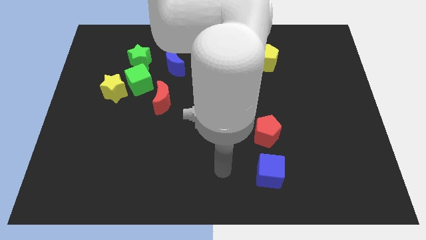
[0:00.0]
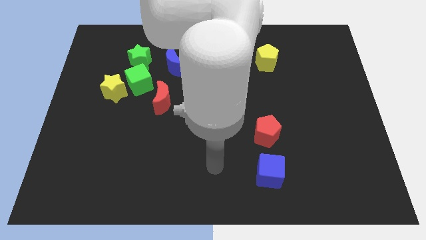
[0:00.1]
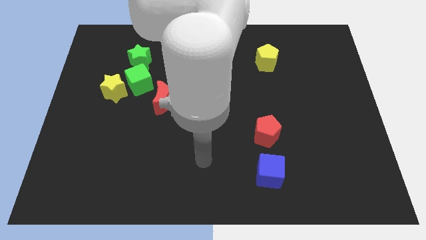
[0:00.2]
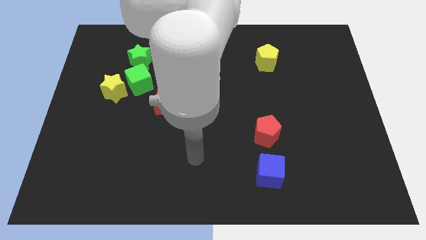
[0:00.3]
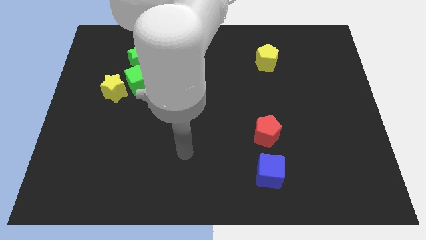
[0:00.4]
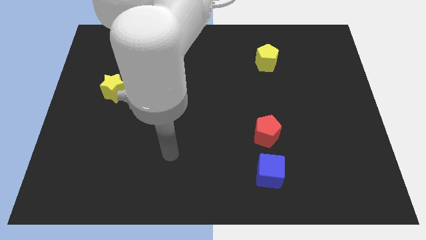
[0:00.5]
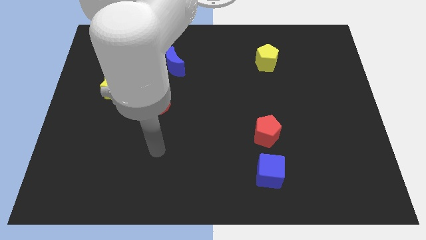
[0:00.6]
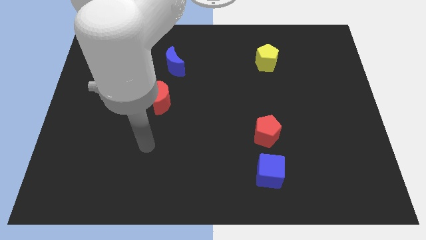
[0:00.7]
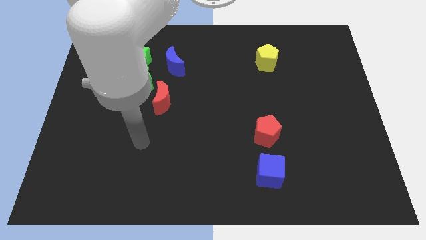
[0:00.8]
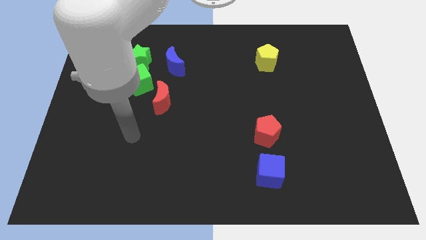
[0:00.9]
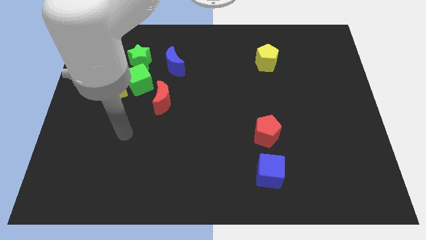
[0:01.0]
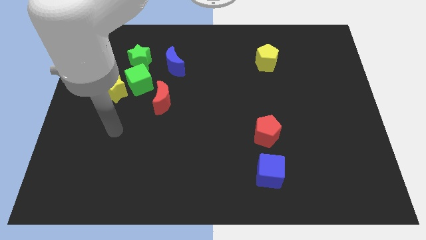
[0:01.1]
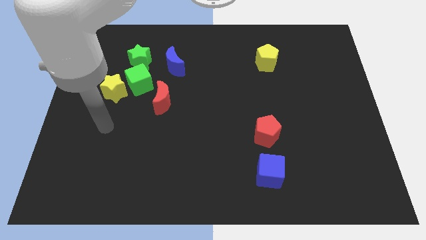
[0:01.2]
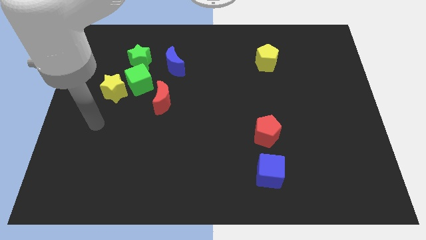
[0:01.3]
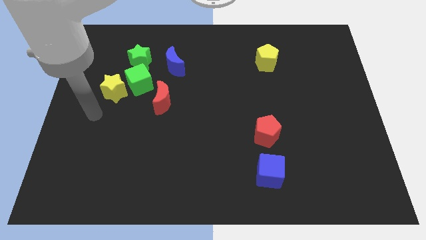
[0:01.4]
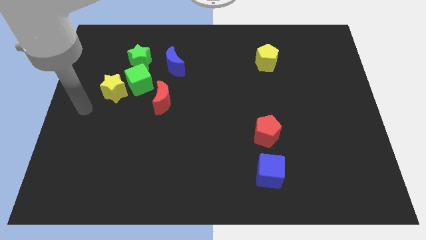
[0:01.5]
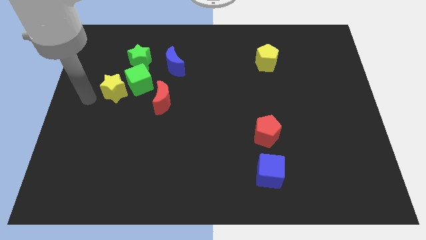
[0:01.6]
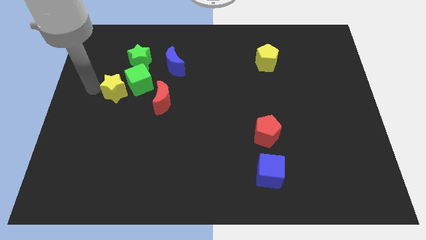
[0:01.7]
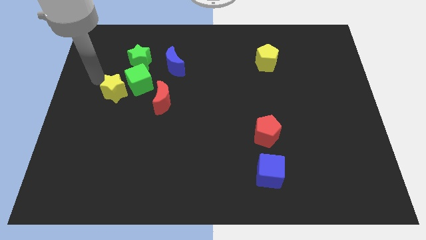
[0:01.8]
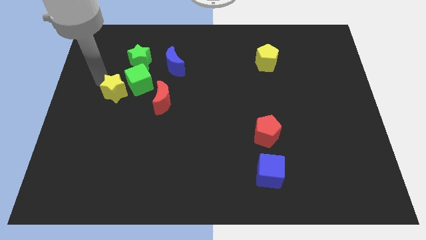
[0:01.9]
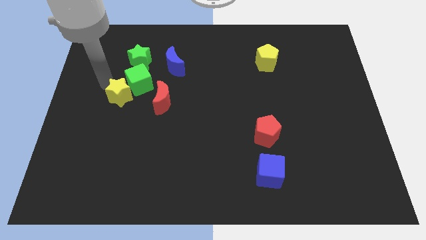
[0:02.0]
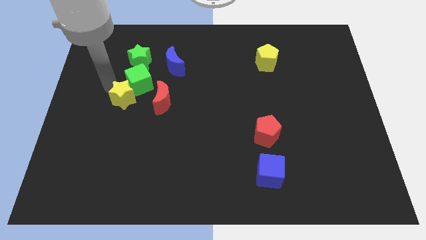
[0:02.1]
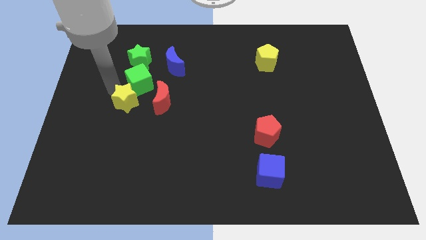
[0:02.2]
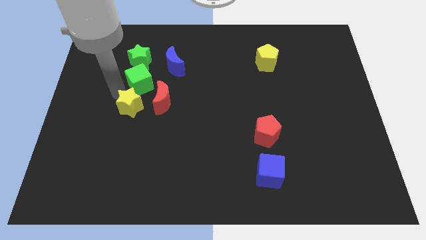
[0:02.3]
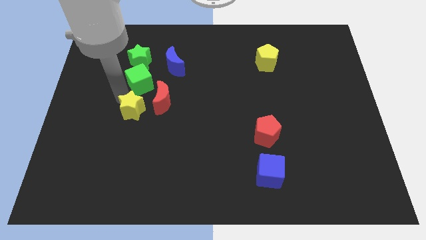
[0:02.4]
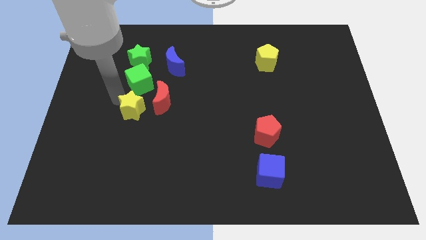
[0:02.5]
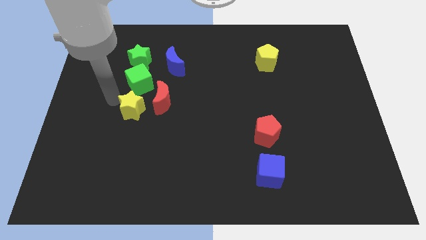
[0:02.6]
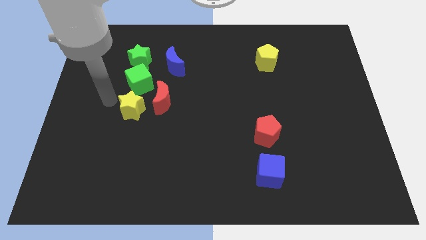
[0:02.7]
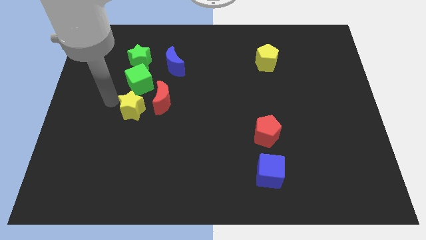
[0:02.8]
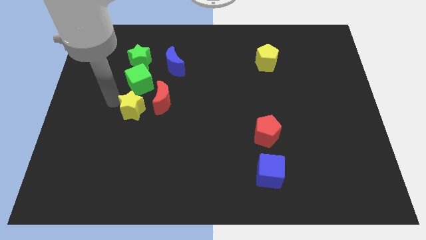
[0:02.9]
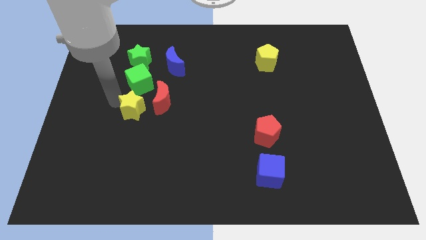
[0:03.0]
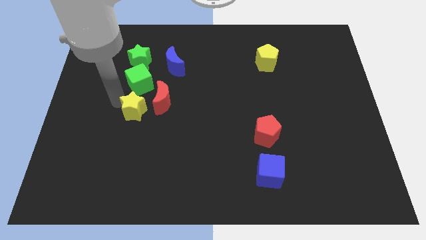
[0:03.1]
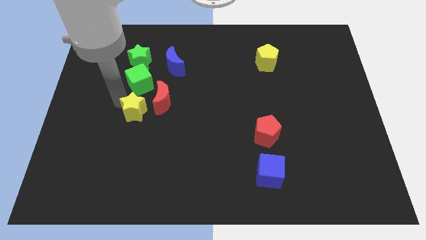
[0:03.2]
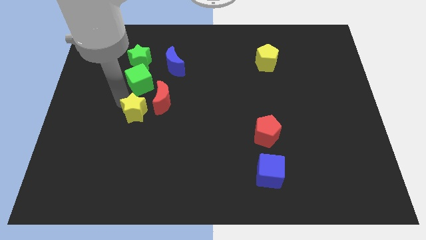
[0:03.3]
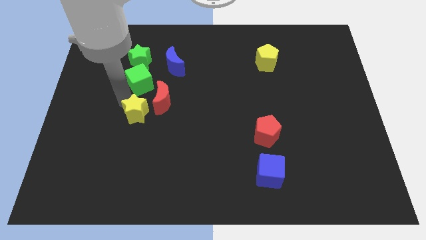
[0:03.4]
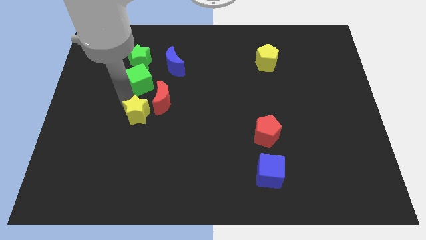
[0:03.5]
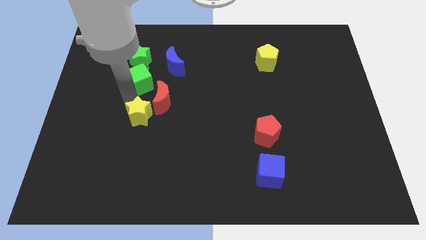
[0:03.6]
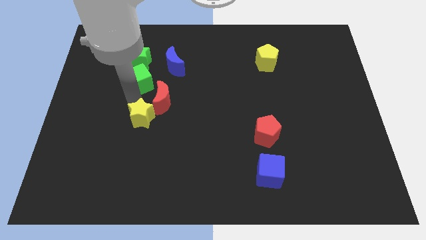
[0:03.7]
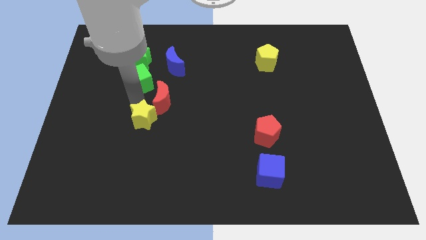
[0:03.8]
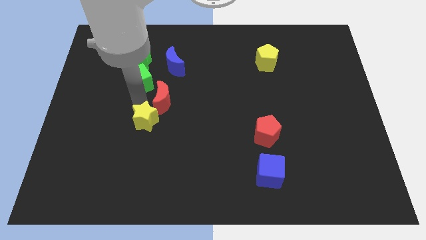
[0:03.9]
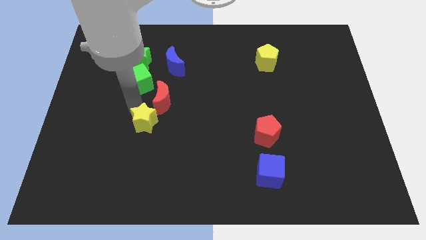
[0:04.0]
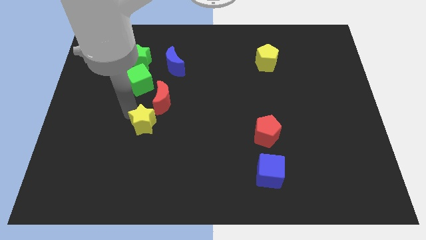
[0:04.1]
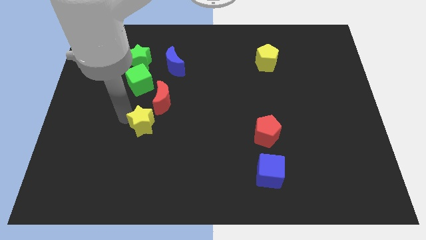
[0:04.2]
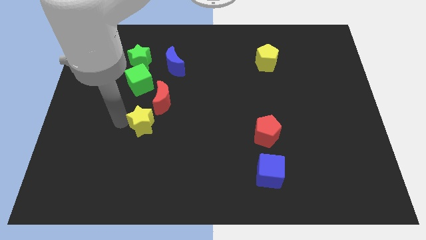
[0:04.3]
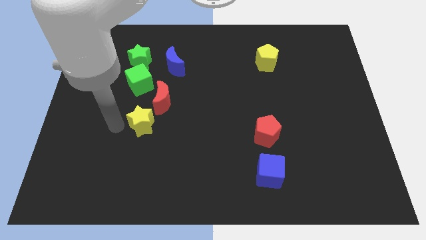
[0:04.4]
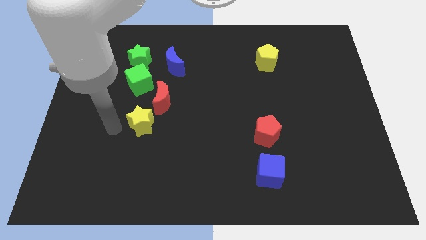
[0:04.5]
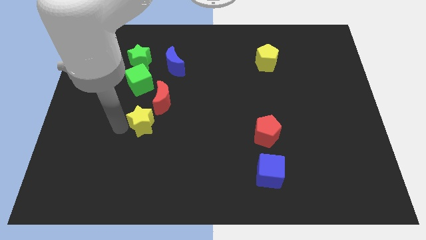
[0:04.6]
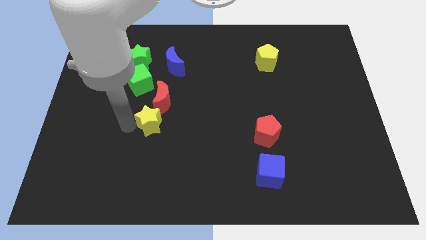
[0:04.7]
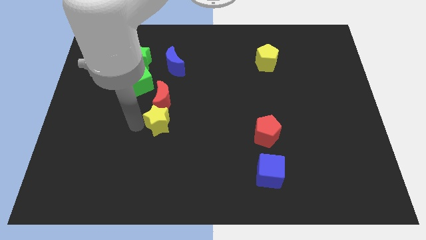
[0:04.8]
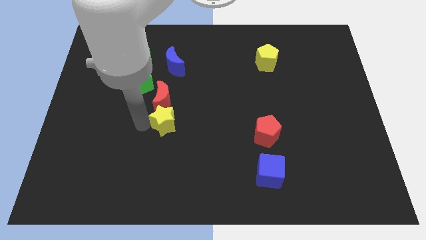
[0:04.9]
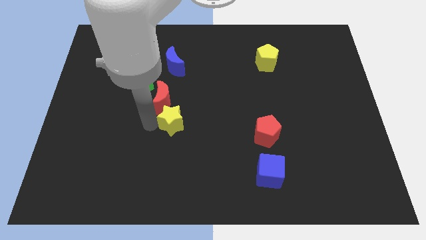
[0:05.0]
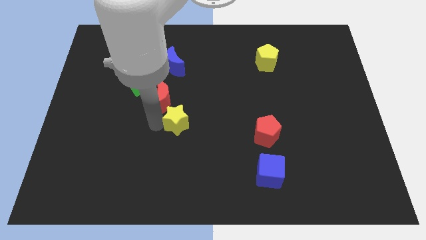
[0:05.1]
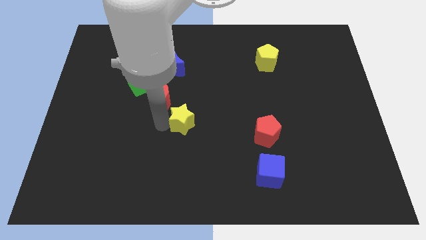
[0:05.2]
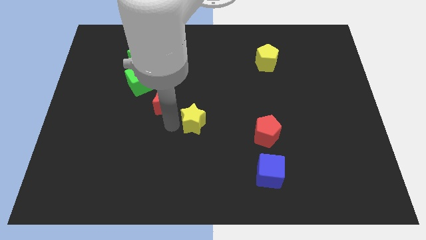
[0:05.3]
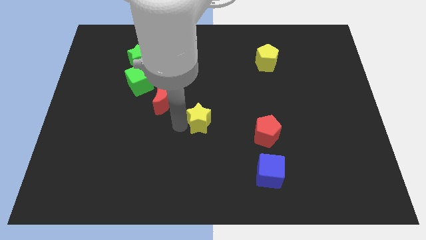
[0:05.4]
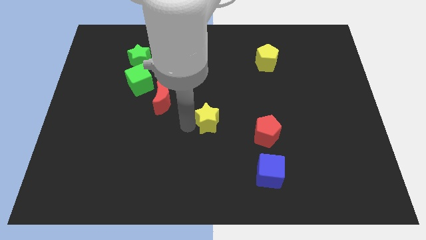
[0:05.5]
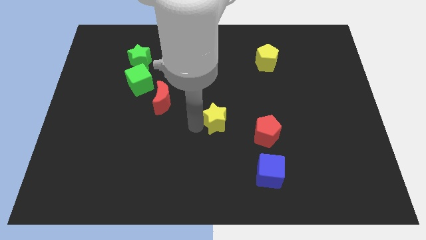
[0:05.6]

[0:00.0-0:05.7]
move the yellow star right

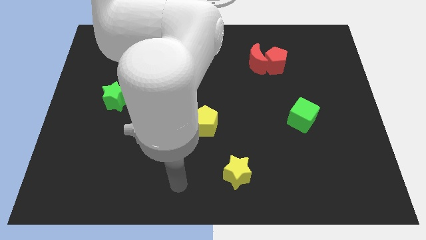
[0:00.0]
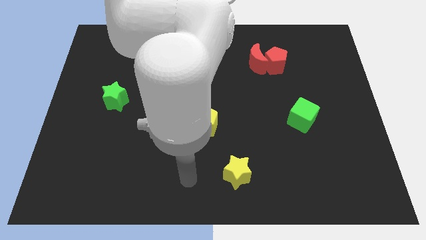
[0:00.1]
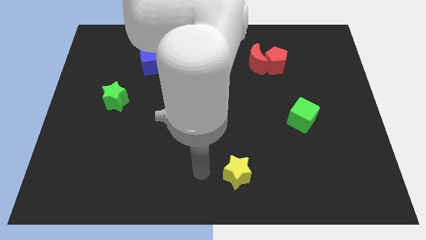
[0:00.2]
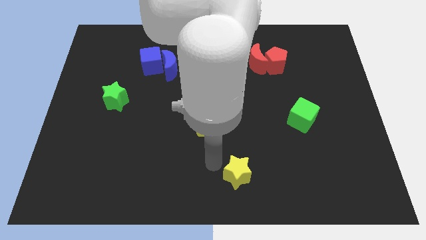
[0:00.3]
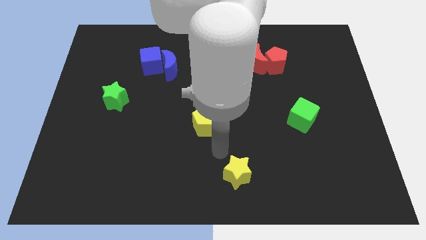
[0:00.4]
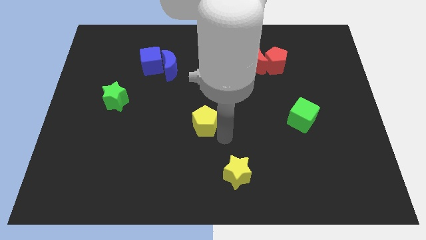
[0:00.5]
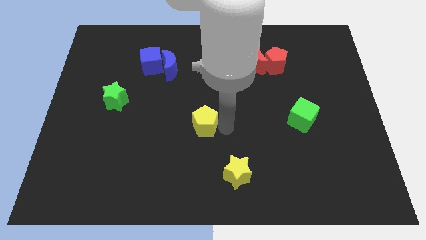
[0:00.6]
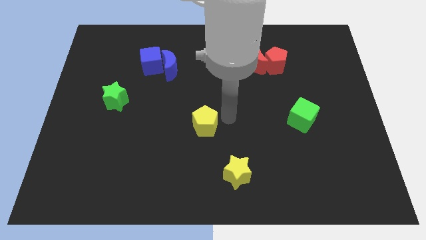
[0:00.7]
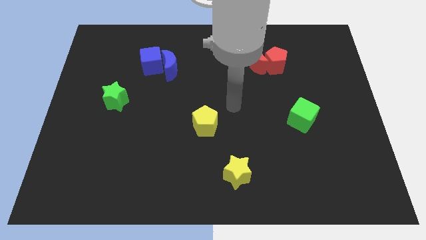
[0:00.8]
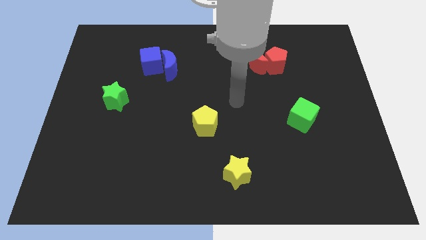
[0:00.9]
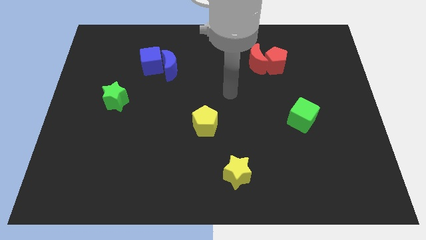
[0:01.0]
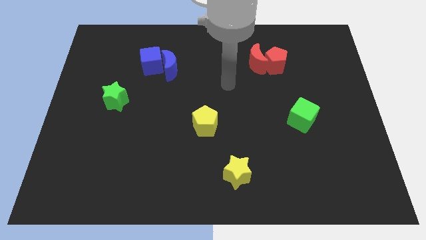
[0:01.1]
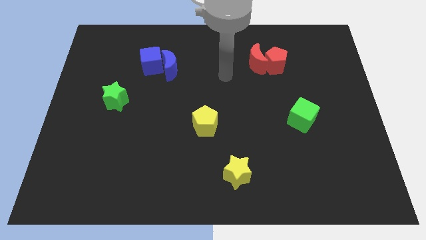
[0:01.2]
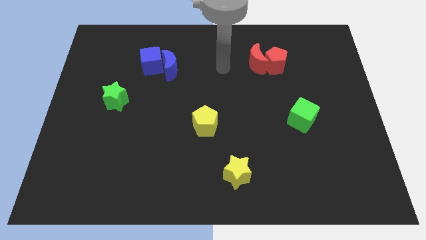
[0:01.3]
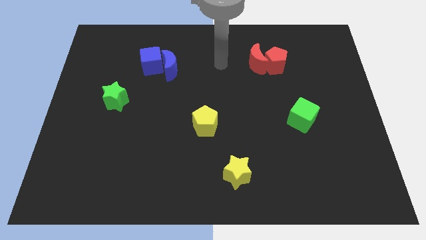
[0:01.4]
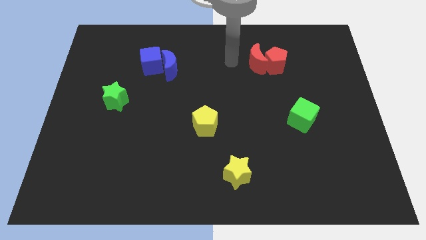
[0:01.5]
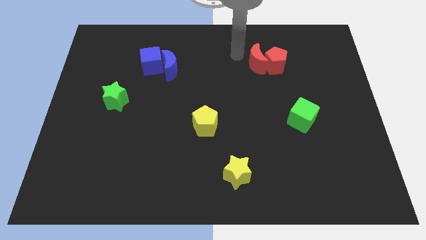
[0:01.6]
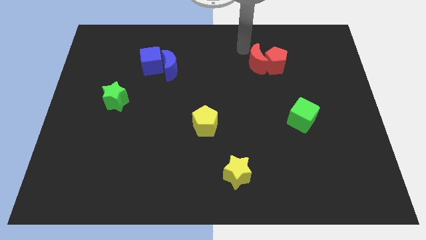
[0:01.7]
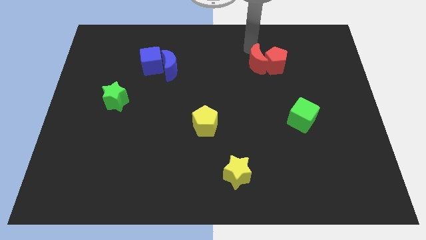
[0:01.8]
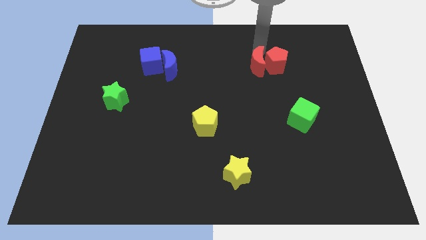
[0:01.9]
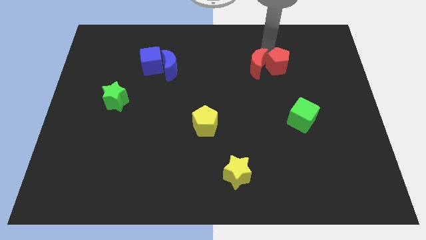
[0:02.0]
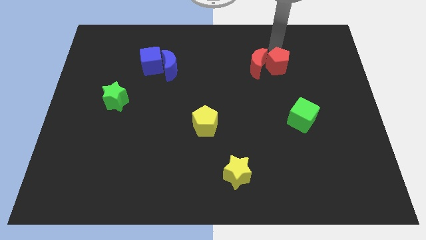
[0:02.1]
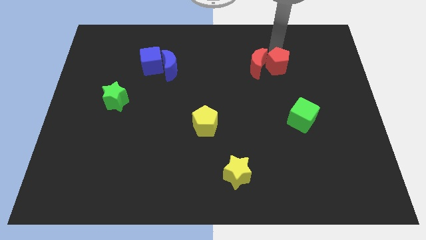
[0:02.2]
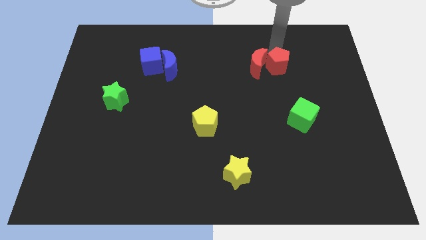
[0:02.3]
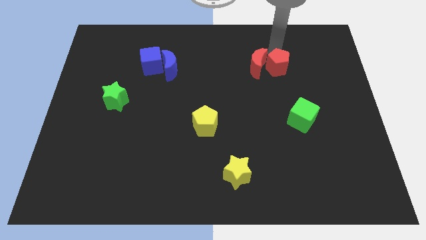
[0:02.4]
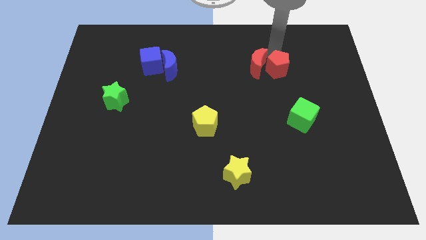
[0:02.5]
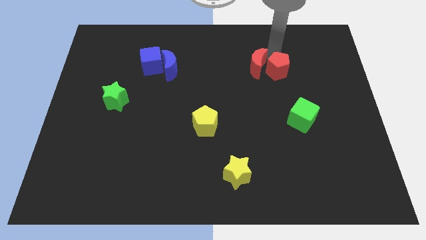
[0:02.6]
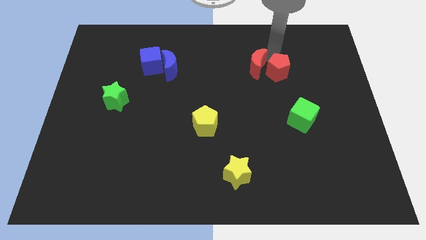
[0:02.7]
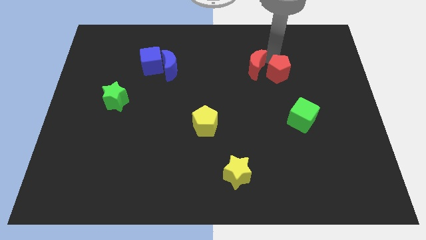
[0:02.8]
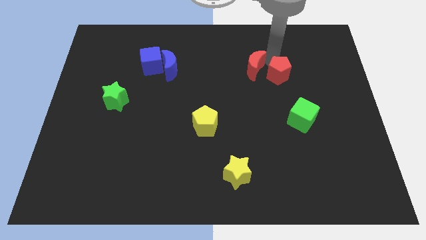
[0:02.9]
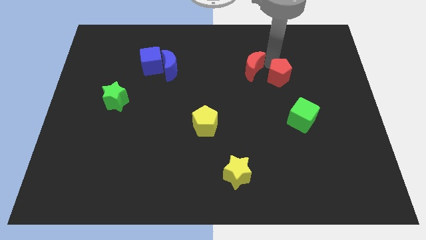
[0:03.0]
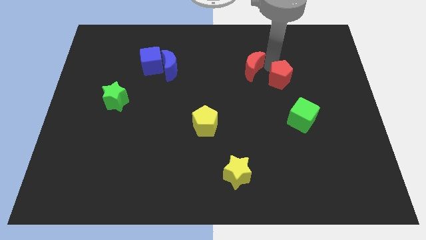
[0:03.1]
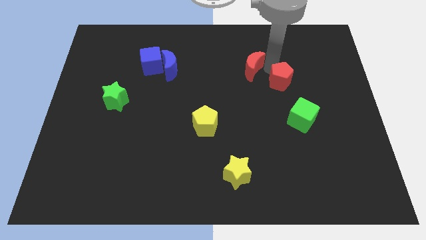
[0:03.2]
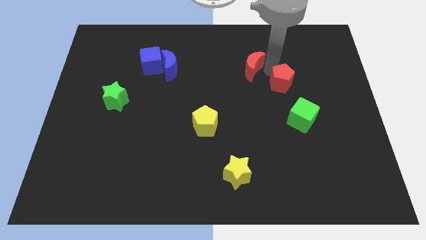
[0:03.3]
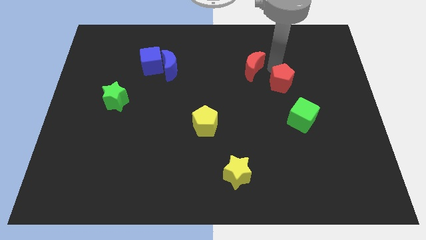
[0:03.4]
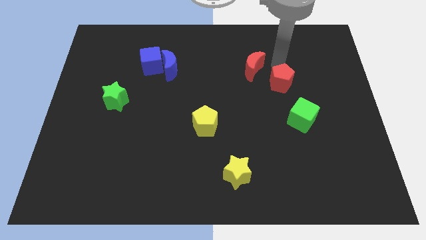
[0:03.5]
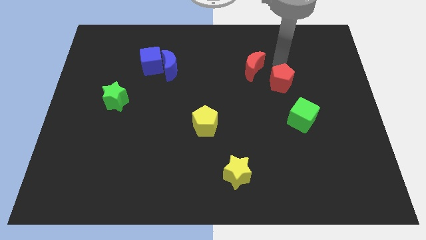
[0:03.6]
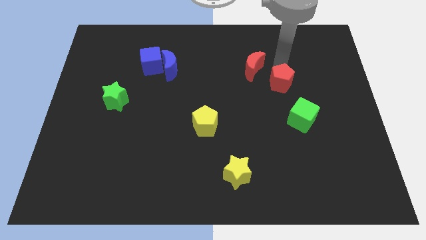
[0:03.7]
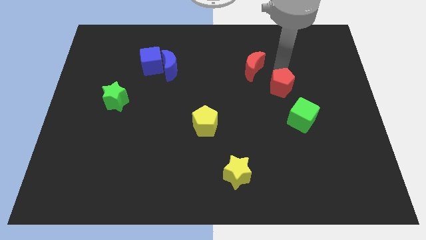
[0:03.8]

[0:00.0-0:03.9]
slightly slide the red pentagon downwards
